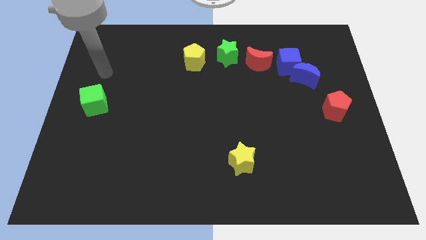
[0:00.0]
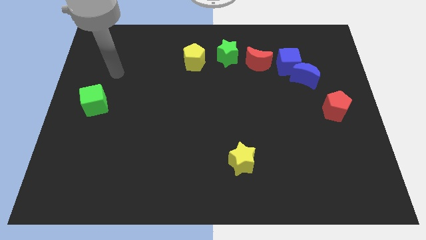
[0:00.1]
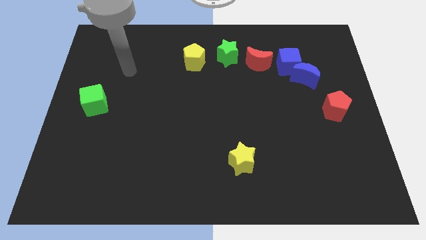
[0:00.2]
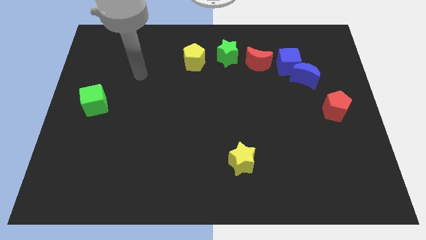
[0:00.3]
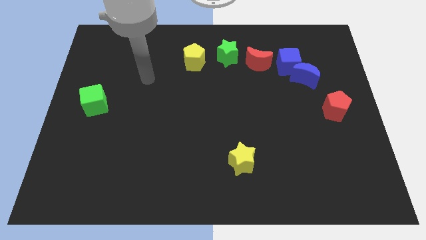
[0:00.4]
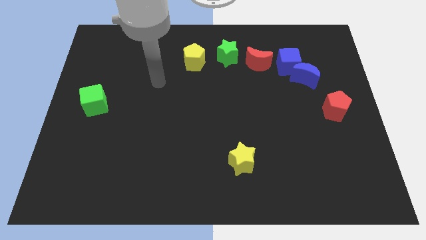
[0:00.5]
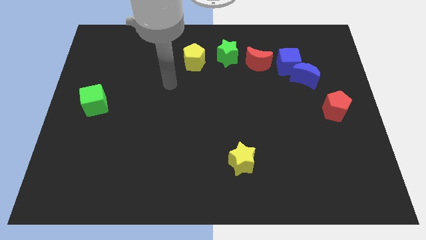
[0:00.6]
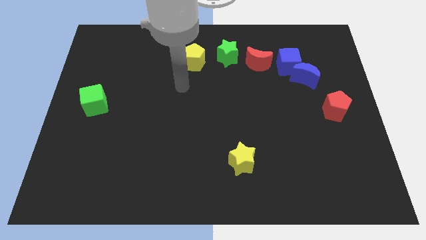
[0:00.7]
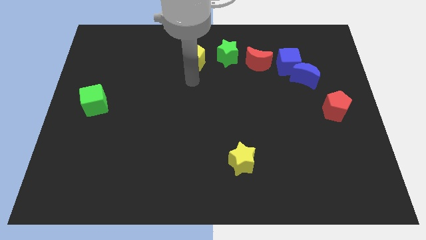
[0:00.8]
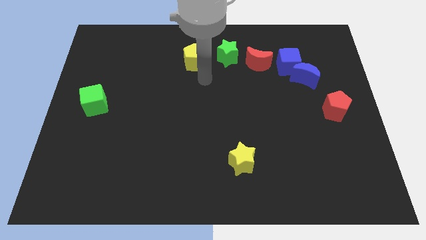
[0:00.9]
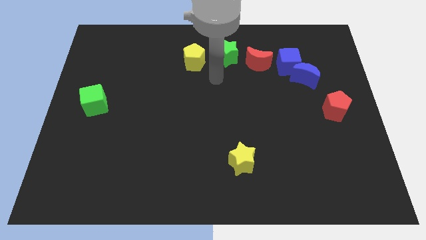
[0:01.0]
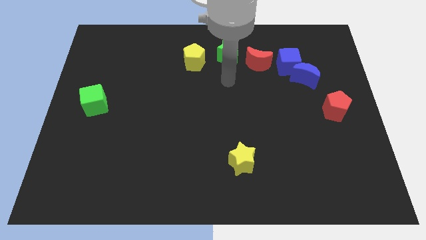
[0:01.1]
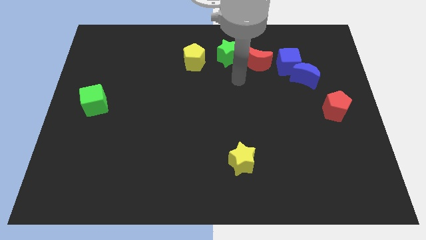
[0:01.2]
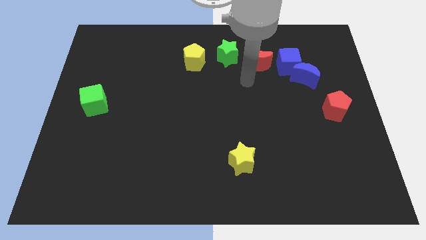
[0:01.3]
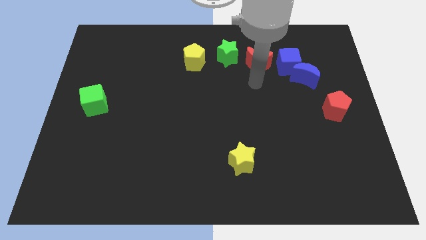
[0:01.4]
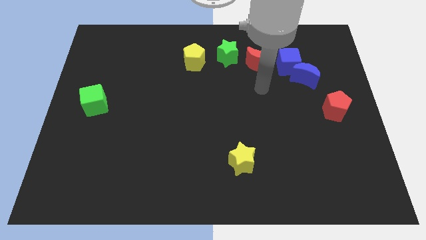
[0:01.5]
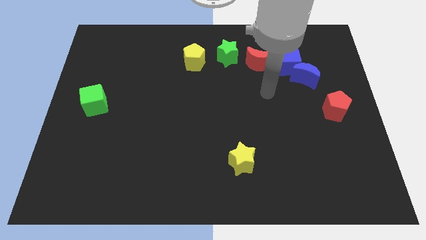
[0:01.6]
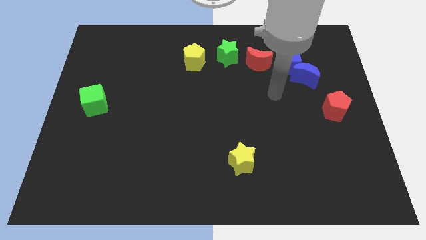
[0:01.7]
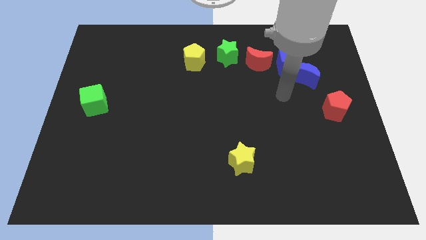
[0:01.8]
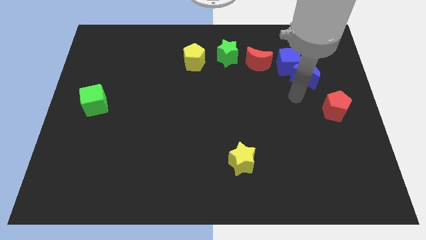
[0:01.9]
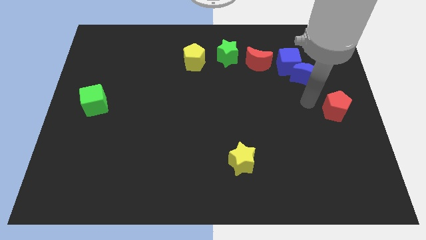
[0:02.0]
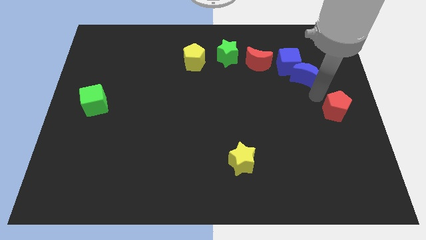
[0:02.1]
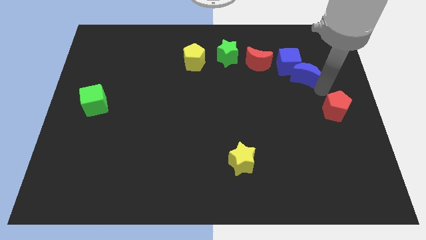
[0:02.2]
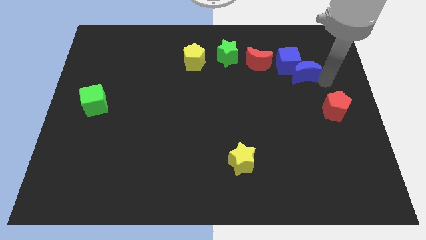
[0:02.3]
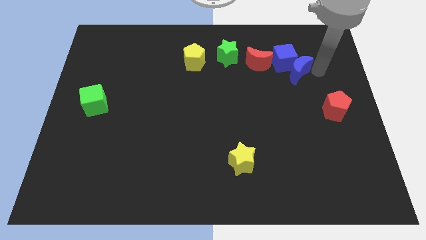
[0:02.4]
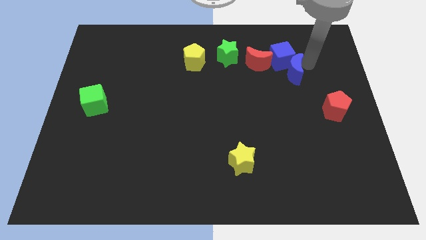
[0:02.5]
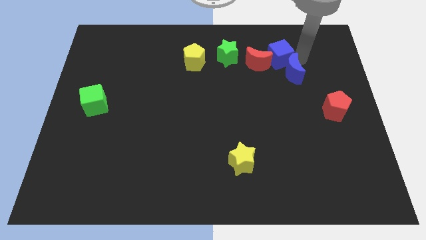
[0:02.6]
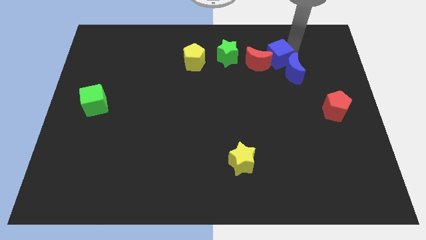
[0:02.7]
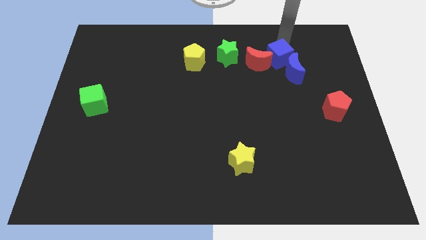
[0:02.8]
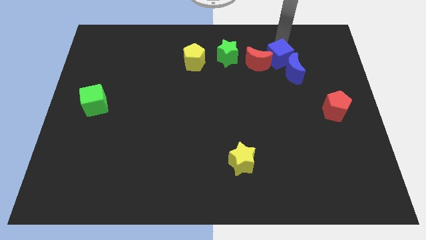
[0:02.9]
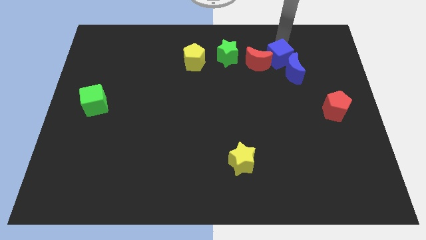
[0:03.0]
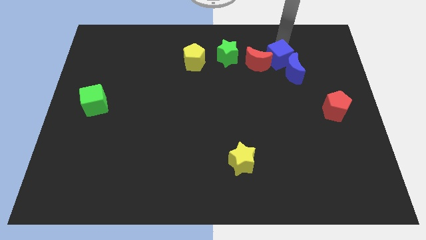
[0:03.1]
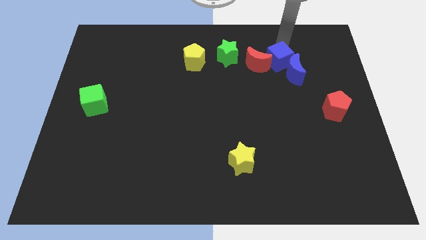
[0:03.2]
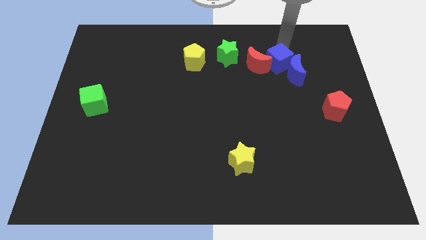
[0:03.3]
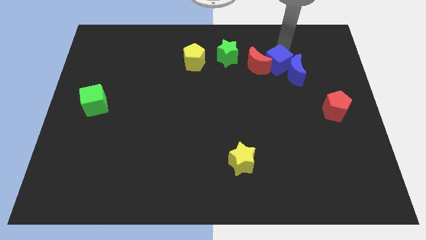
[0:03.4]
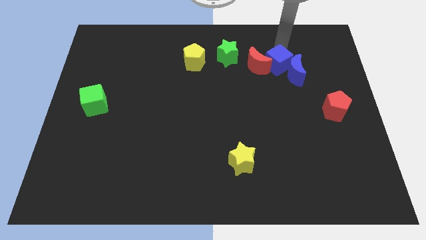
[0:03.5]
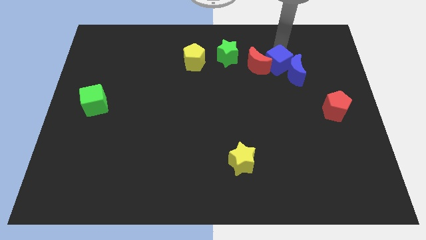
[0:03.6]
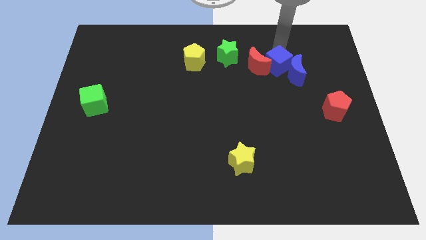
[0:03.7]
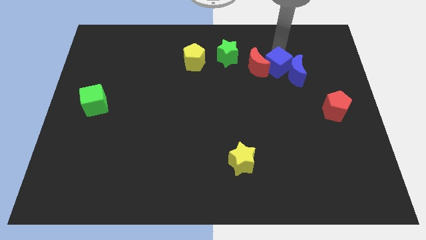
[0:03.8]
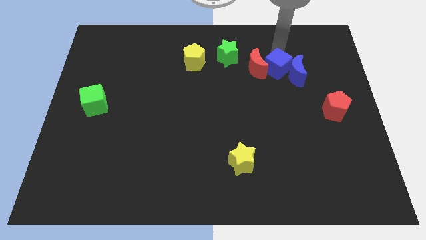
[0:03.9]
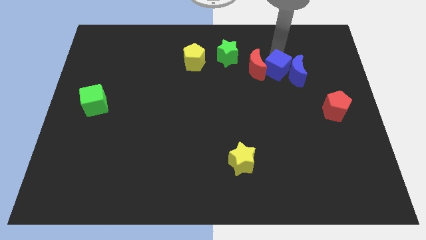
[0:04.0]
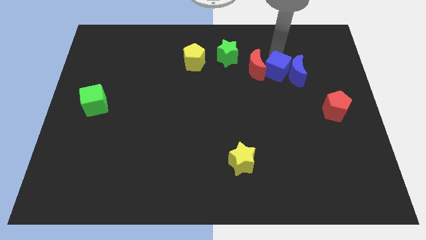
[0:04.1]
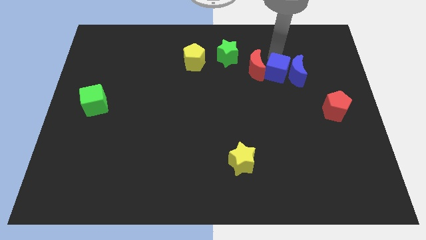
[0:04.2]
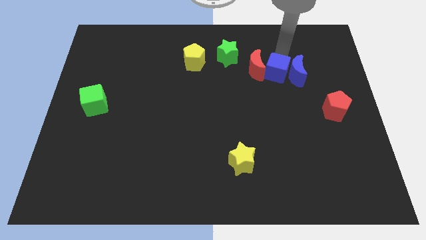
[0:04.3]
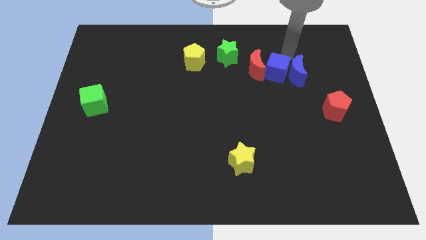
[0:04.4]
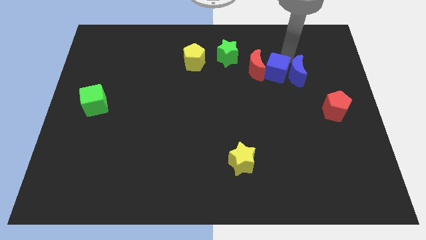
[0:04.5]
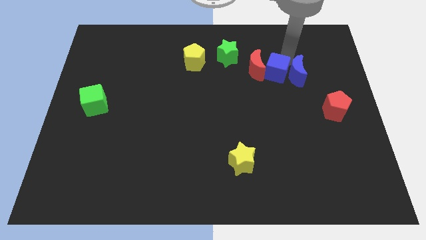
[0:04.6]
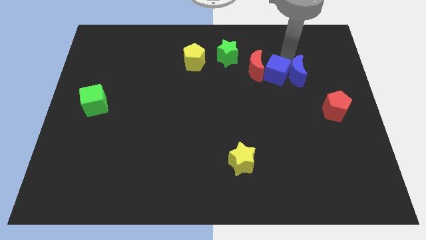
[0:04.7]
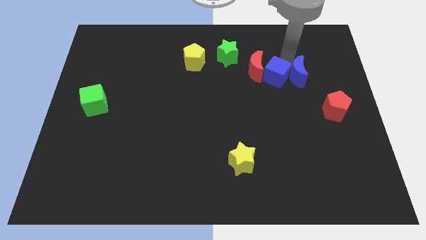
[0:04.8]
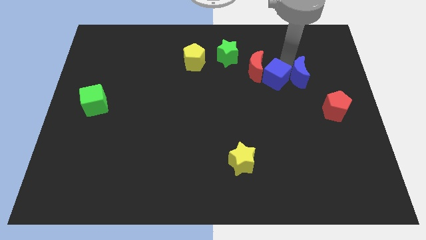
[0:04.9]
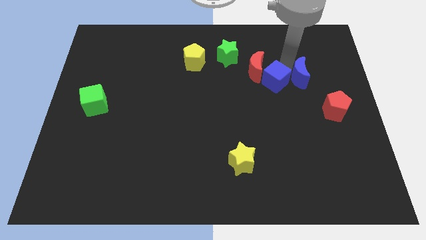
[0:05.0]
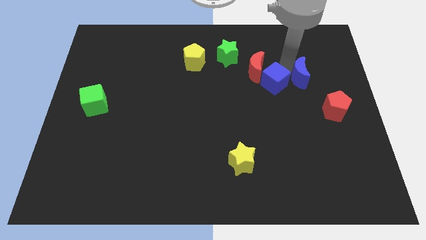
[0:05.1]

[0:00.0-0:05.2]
push the blue cube a little bit down and then left

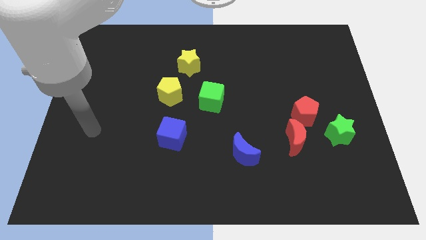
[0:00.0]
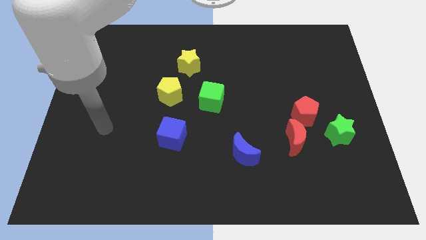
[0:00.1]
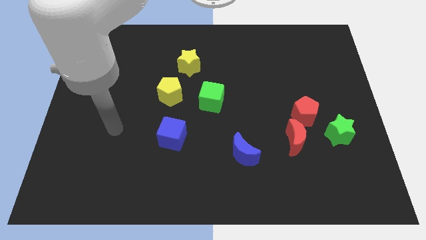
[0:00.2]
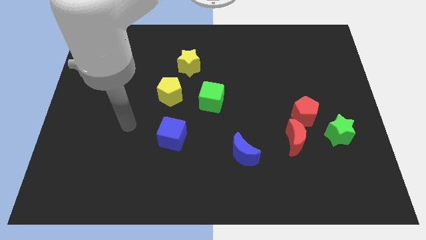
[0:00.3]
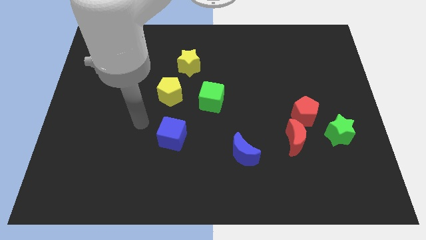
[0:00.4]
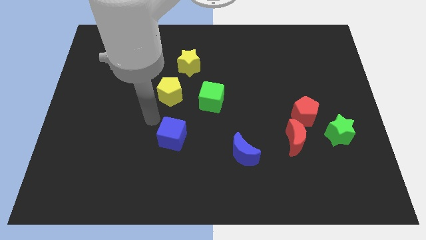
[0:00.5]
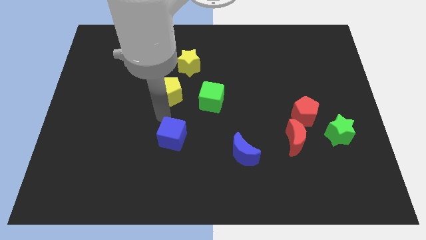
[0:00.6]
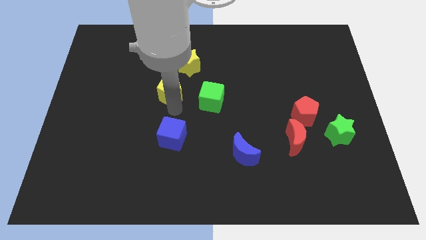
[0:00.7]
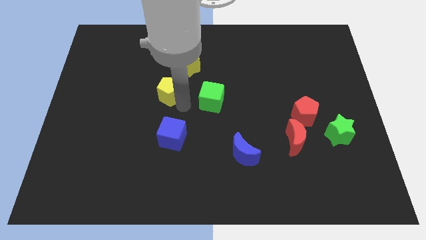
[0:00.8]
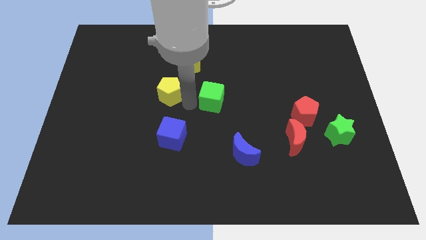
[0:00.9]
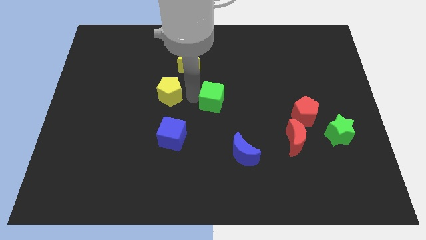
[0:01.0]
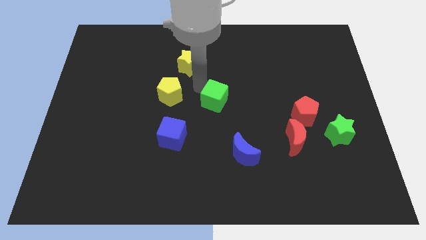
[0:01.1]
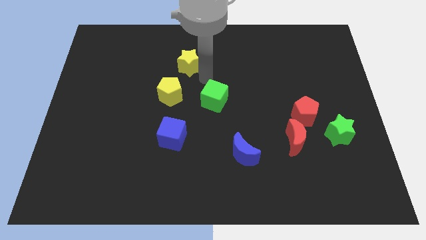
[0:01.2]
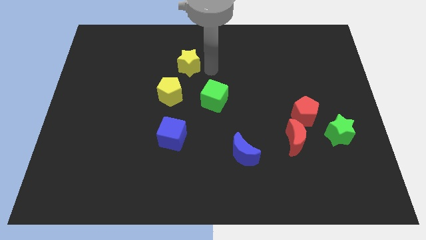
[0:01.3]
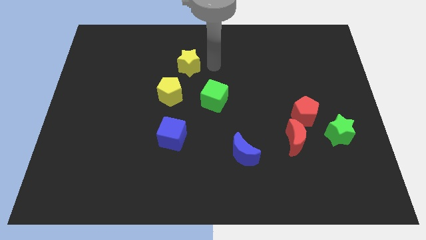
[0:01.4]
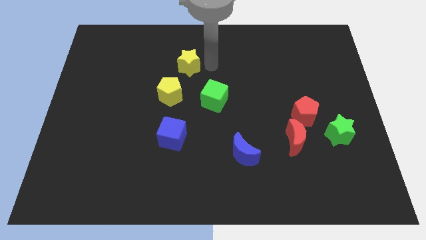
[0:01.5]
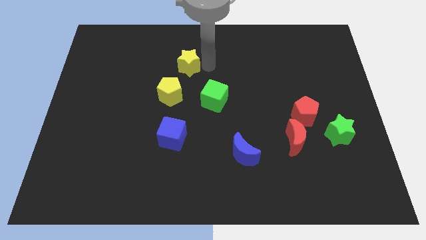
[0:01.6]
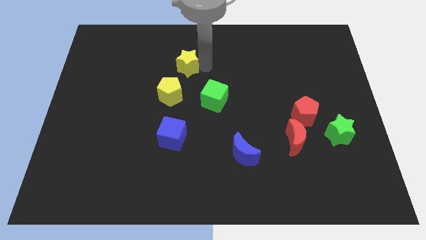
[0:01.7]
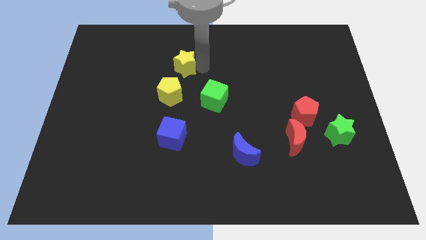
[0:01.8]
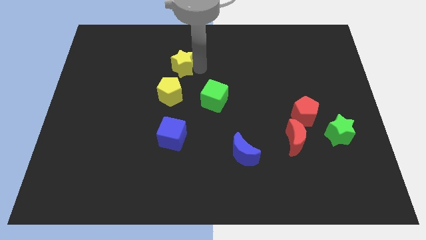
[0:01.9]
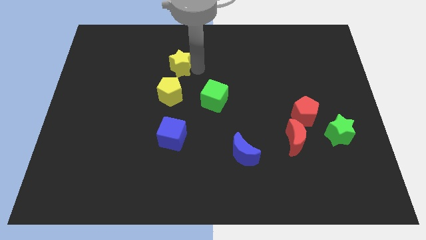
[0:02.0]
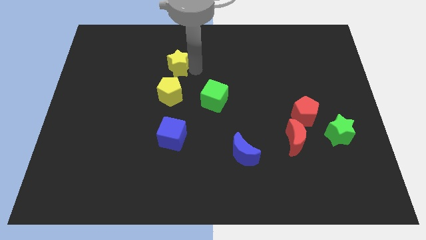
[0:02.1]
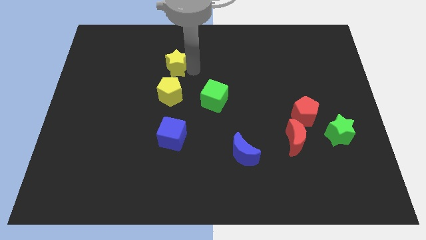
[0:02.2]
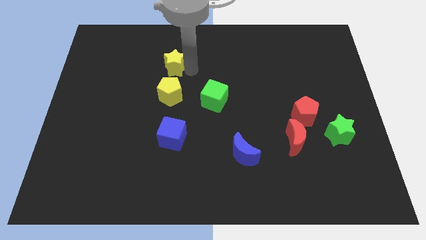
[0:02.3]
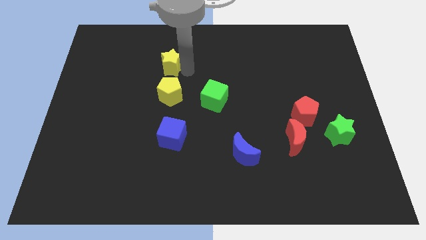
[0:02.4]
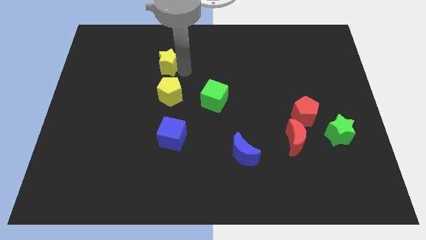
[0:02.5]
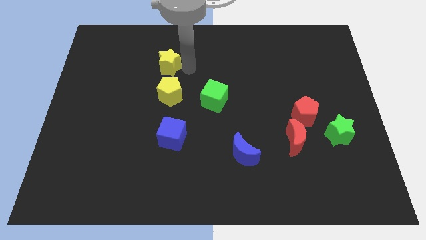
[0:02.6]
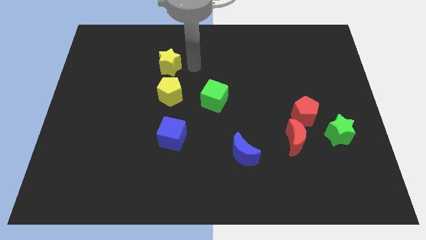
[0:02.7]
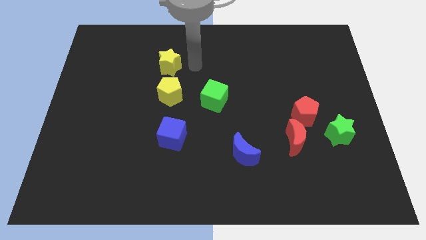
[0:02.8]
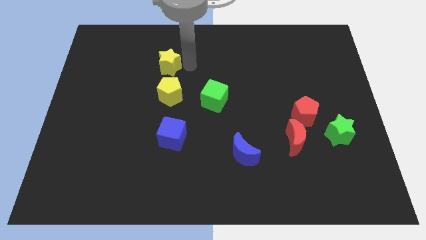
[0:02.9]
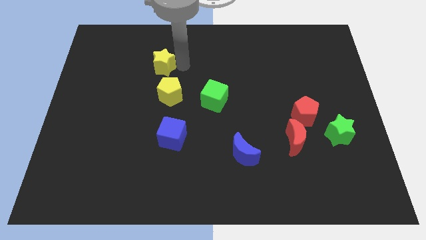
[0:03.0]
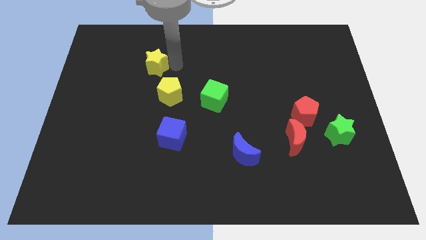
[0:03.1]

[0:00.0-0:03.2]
slide the yellow star left somewhat
